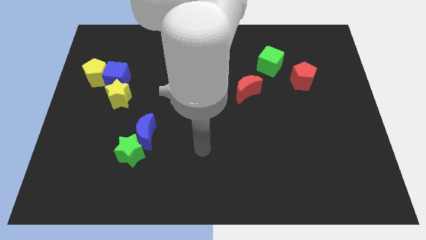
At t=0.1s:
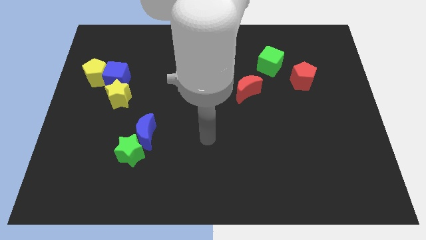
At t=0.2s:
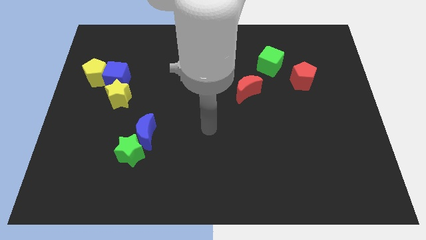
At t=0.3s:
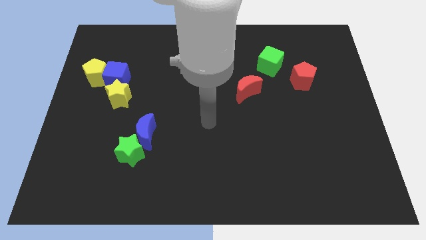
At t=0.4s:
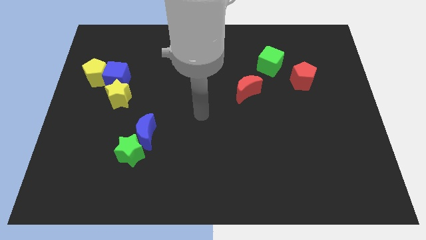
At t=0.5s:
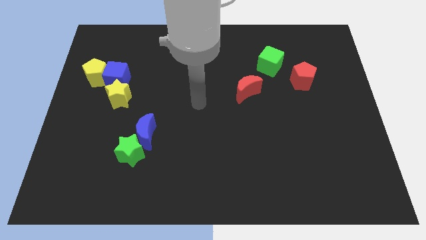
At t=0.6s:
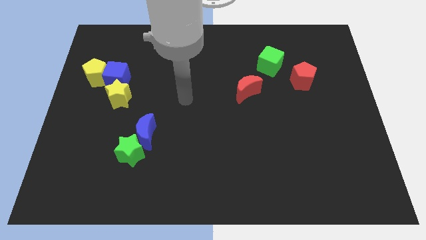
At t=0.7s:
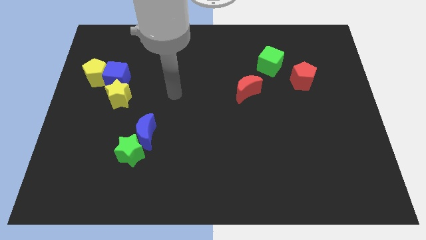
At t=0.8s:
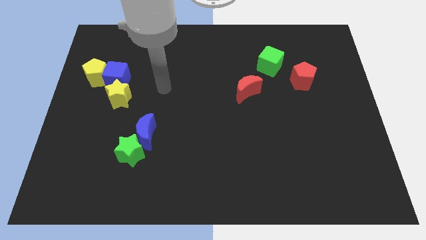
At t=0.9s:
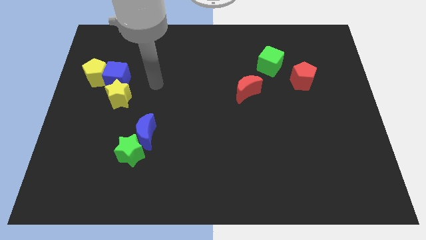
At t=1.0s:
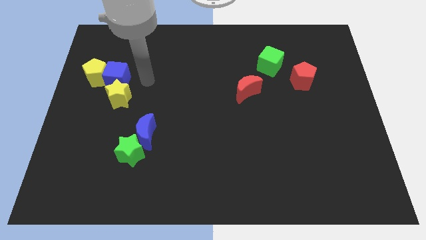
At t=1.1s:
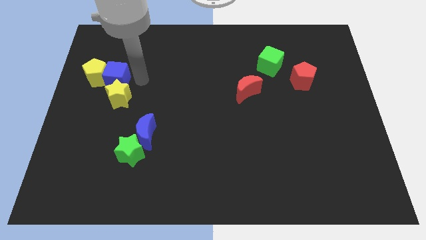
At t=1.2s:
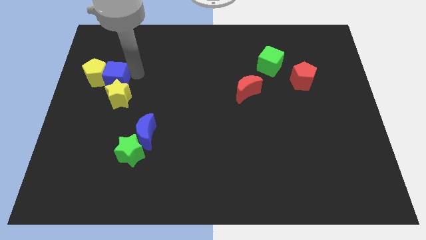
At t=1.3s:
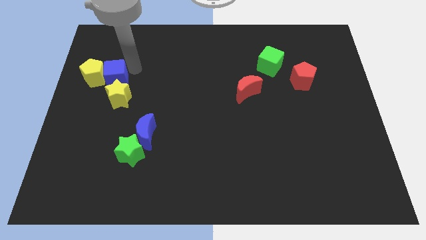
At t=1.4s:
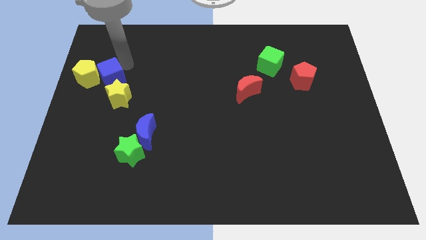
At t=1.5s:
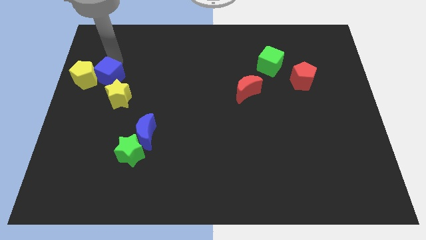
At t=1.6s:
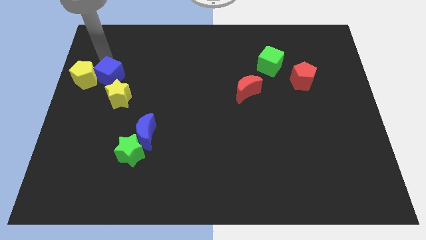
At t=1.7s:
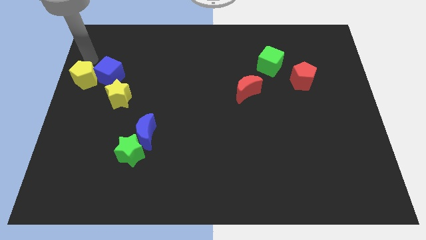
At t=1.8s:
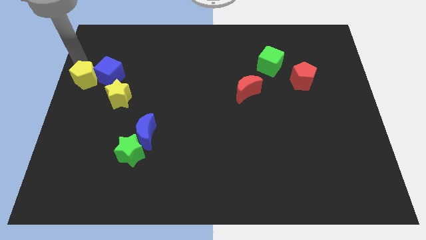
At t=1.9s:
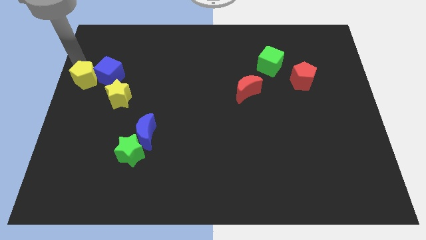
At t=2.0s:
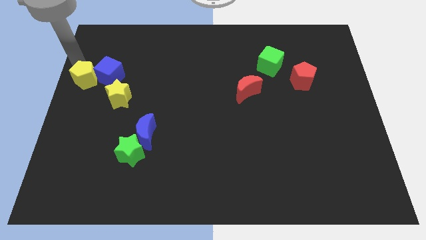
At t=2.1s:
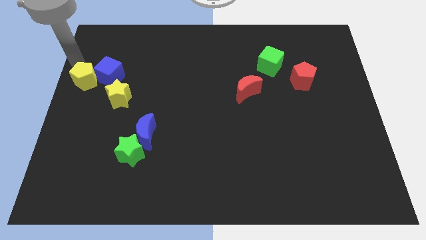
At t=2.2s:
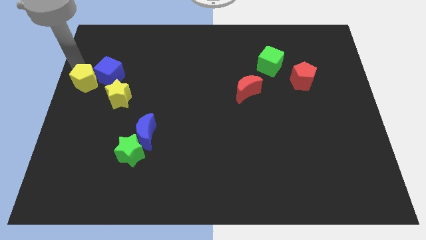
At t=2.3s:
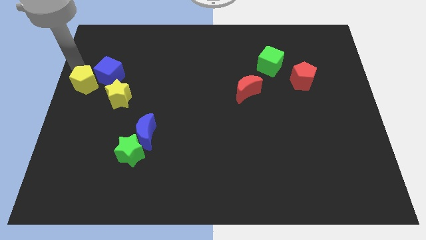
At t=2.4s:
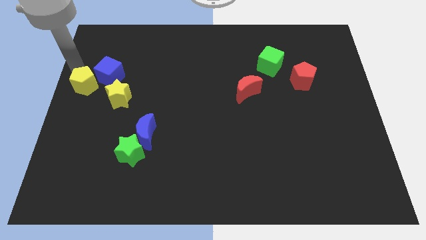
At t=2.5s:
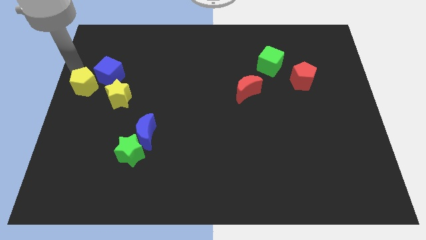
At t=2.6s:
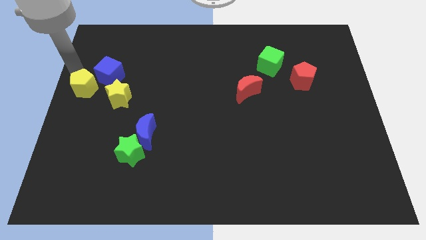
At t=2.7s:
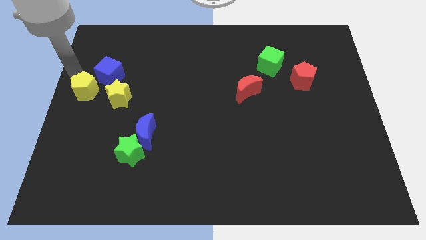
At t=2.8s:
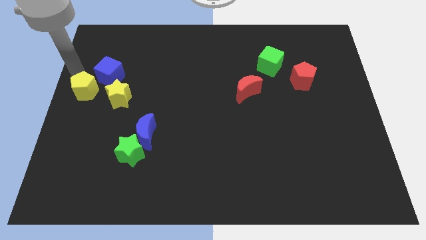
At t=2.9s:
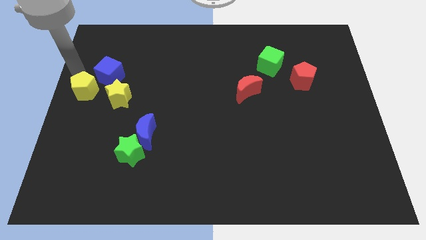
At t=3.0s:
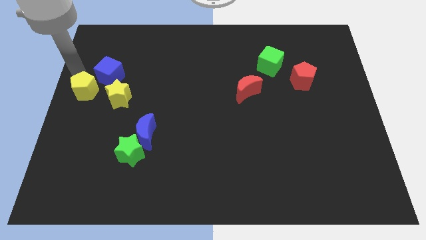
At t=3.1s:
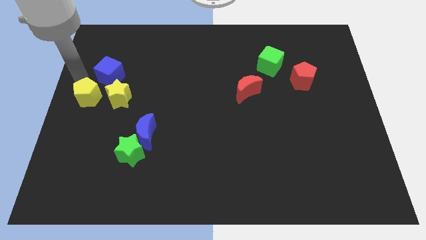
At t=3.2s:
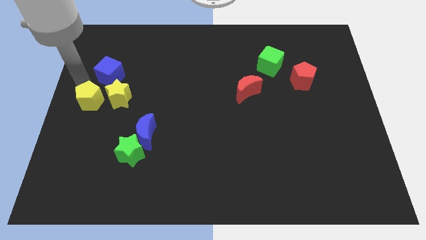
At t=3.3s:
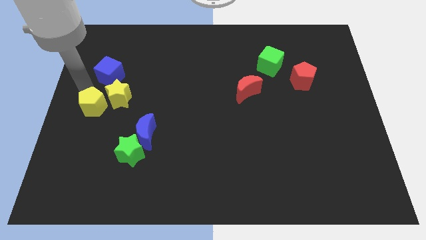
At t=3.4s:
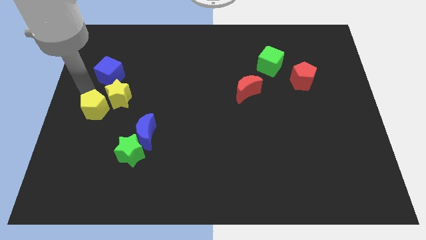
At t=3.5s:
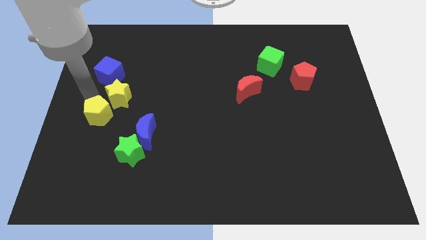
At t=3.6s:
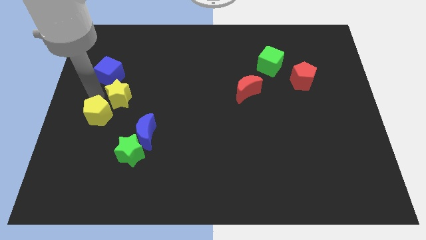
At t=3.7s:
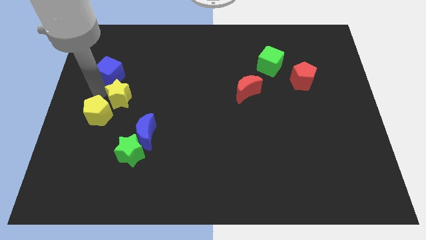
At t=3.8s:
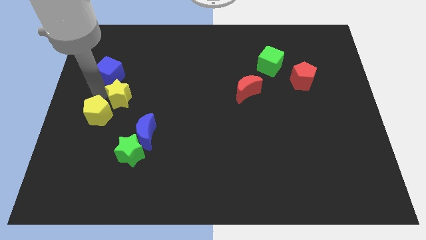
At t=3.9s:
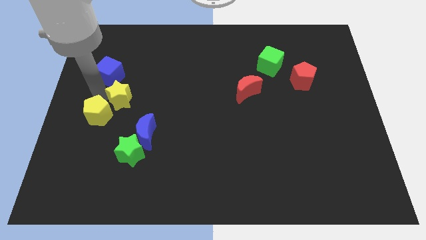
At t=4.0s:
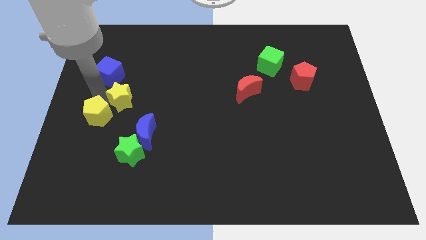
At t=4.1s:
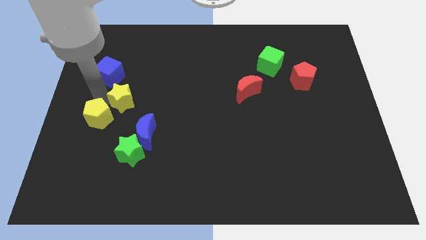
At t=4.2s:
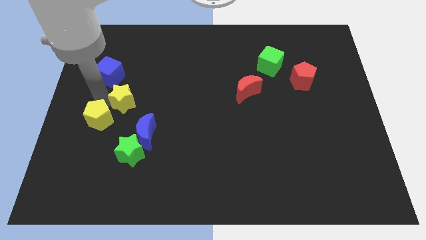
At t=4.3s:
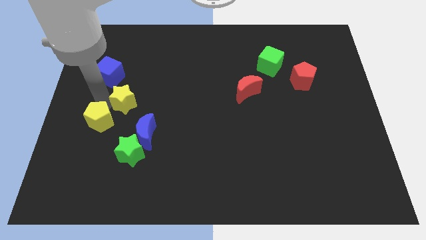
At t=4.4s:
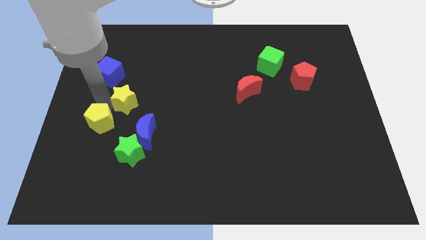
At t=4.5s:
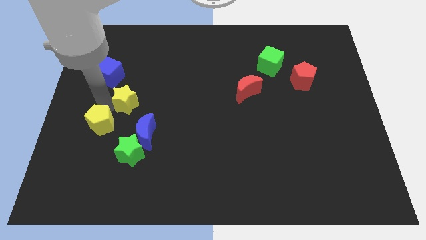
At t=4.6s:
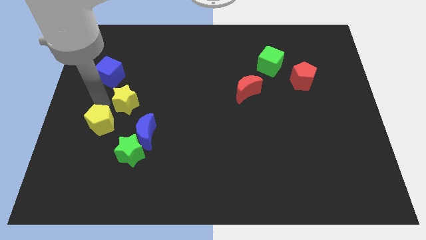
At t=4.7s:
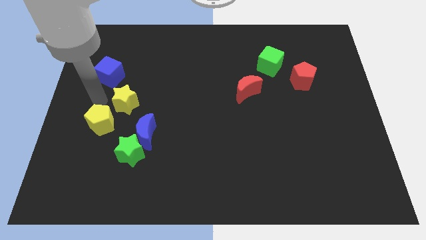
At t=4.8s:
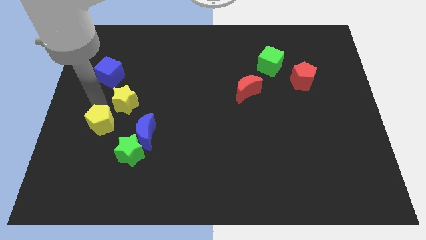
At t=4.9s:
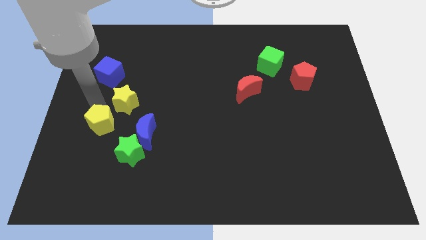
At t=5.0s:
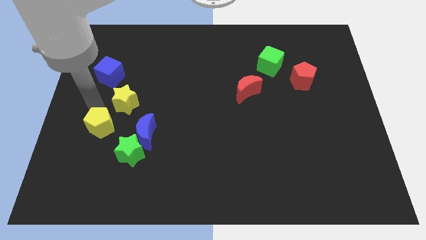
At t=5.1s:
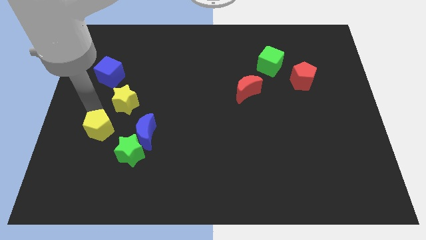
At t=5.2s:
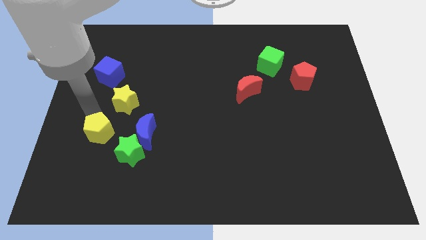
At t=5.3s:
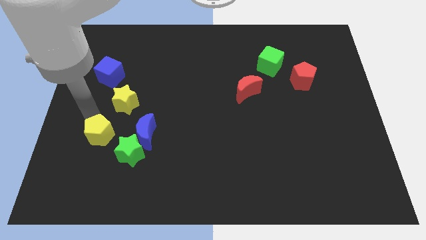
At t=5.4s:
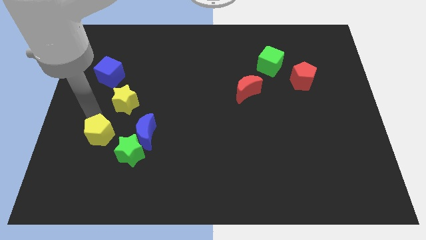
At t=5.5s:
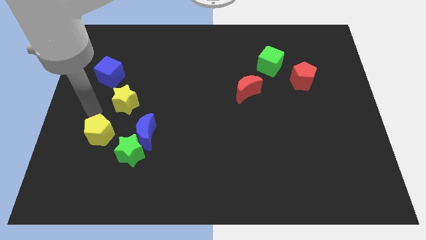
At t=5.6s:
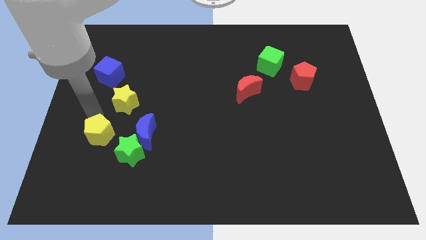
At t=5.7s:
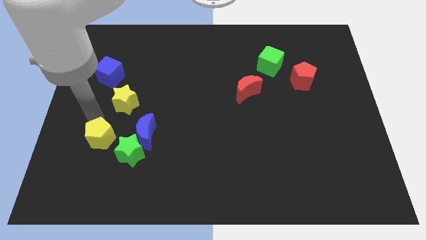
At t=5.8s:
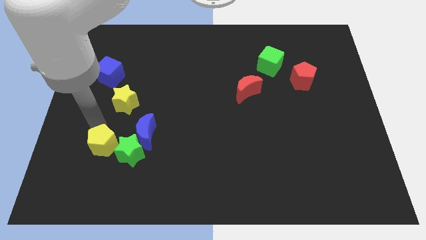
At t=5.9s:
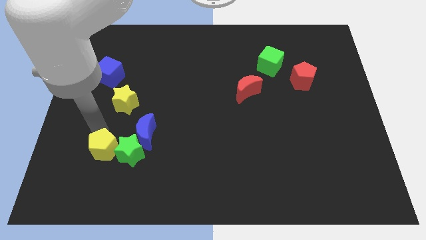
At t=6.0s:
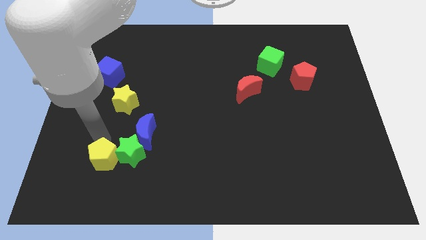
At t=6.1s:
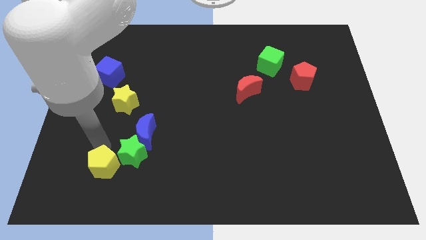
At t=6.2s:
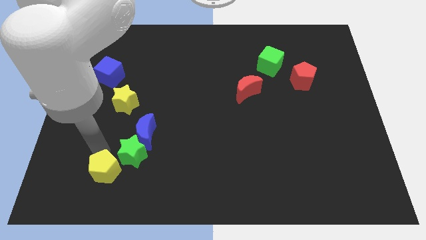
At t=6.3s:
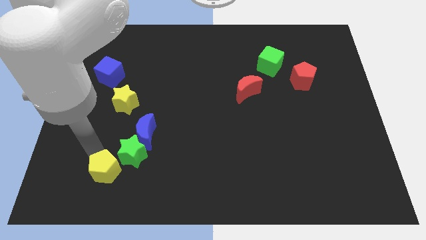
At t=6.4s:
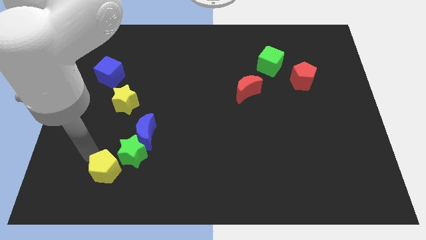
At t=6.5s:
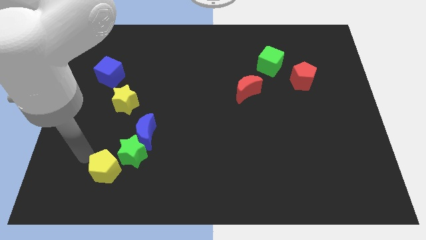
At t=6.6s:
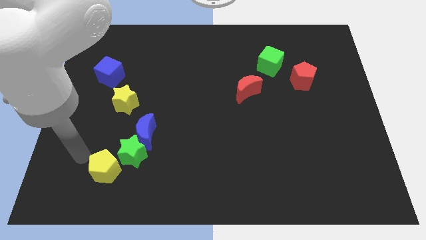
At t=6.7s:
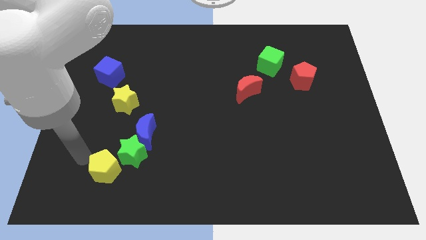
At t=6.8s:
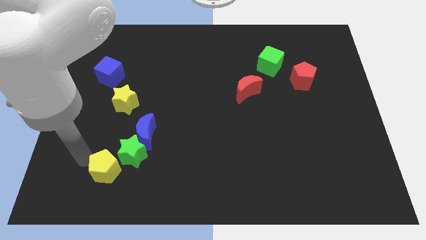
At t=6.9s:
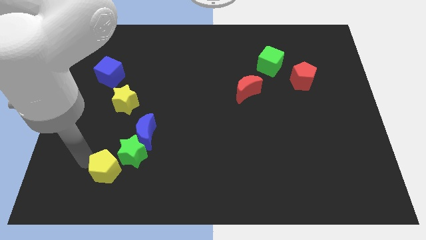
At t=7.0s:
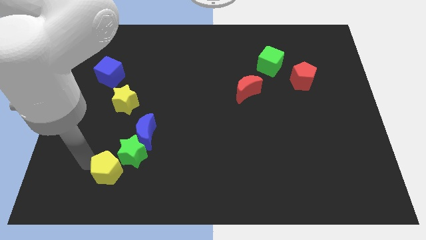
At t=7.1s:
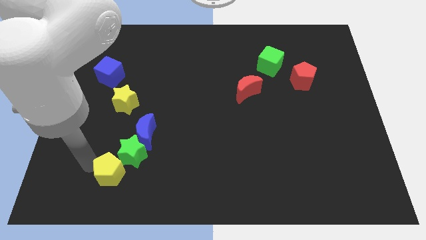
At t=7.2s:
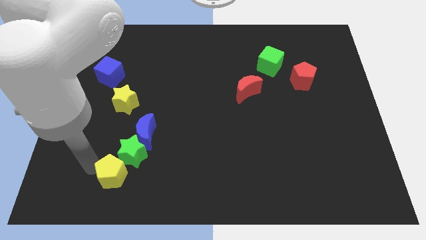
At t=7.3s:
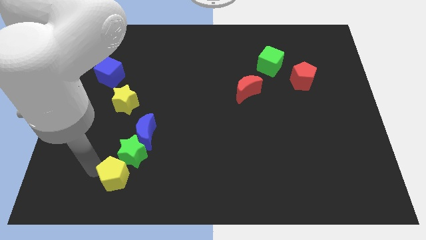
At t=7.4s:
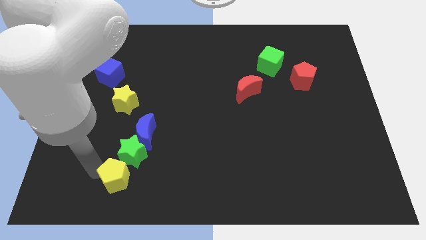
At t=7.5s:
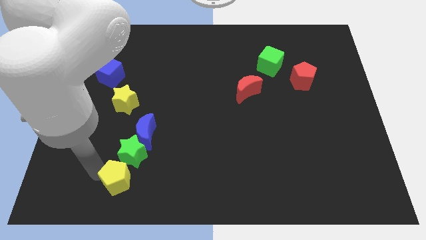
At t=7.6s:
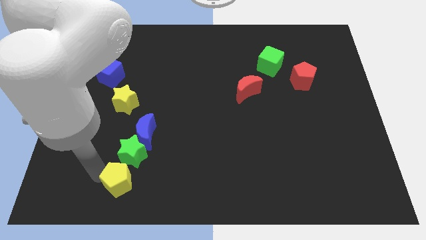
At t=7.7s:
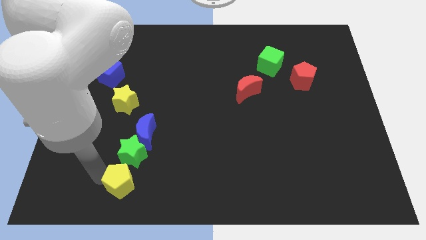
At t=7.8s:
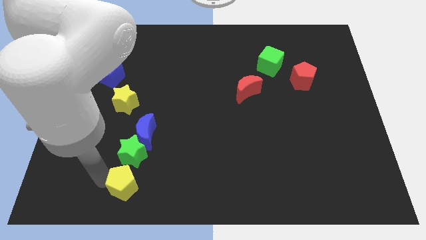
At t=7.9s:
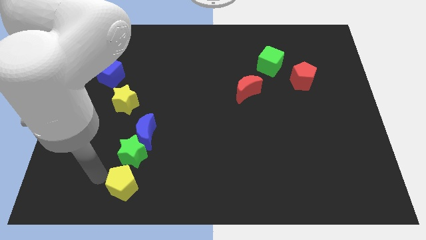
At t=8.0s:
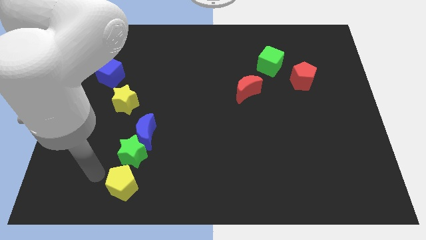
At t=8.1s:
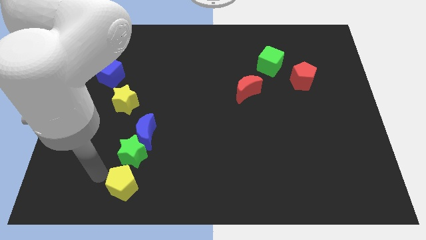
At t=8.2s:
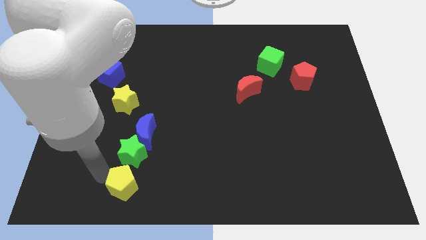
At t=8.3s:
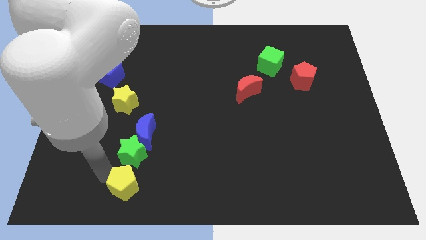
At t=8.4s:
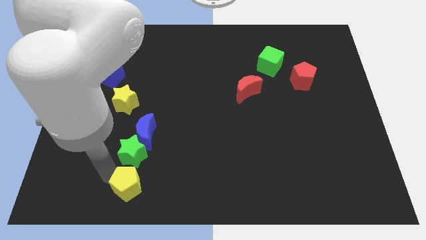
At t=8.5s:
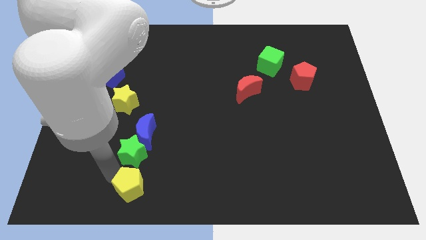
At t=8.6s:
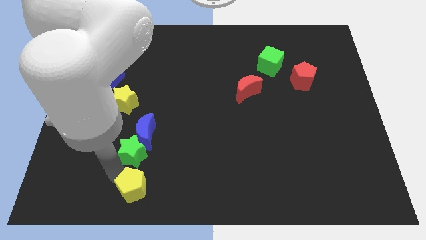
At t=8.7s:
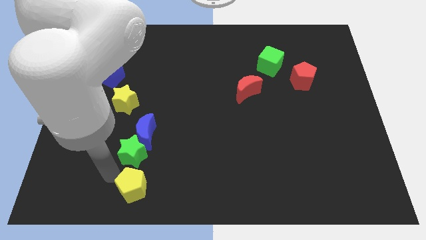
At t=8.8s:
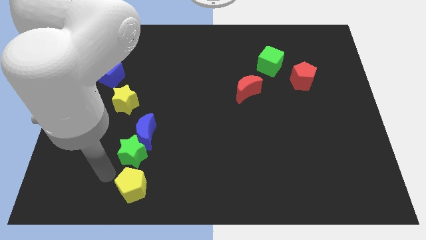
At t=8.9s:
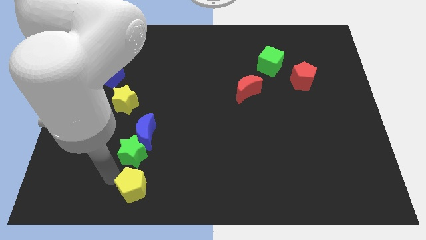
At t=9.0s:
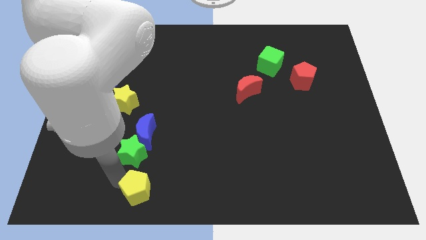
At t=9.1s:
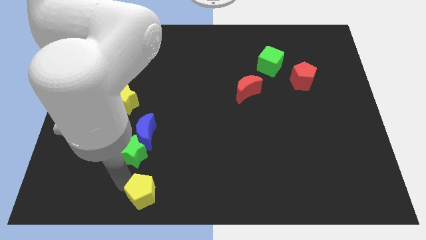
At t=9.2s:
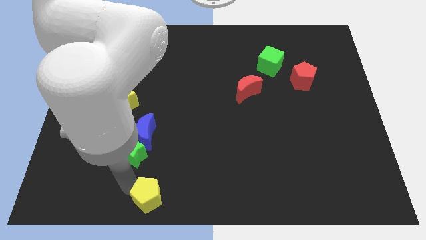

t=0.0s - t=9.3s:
push the yellow pentagon to the bottom side
